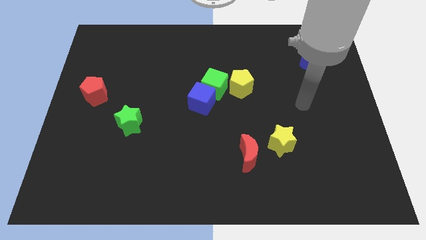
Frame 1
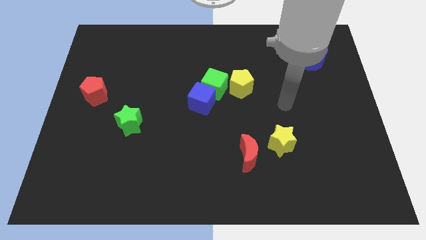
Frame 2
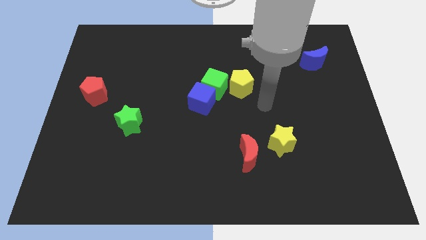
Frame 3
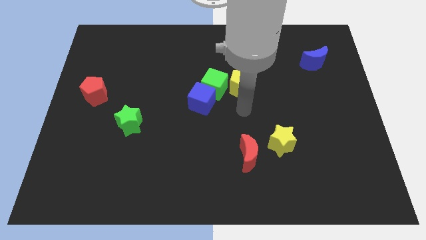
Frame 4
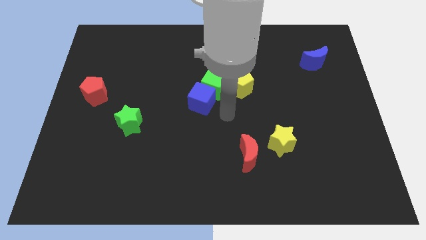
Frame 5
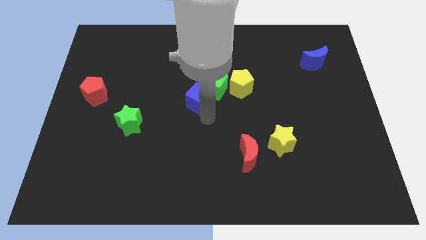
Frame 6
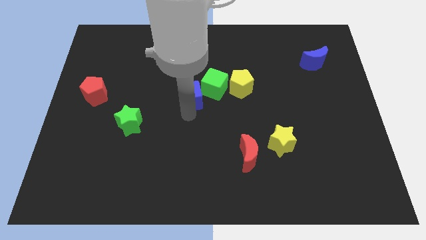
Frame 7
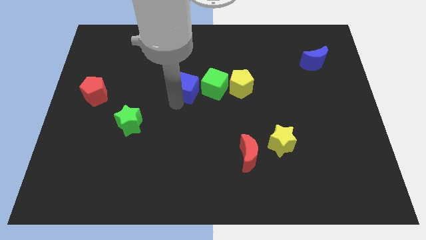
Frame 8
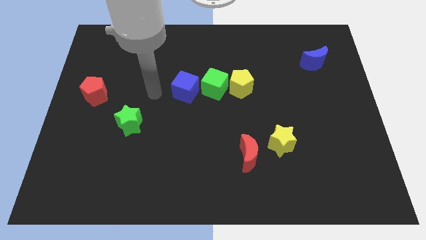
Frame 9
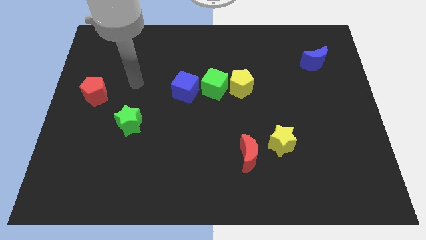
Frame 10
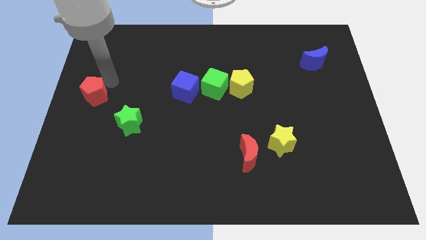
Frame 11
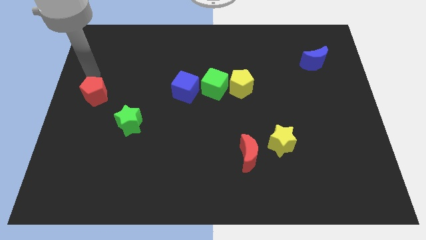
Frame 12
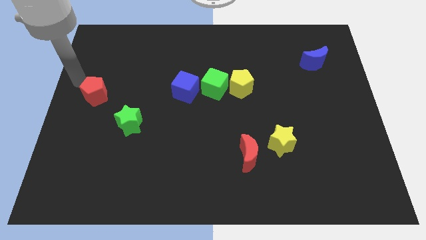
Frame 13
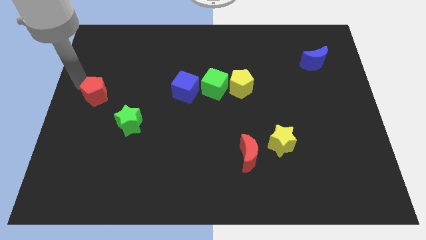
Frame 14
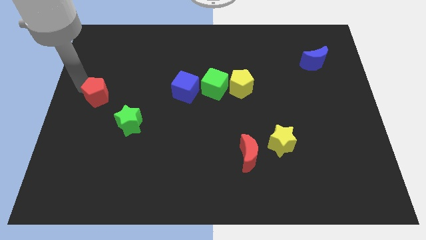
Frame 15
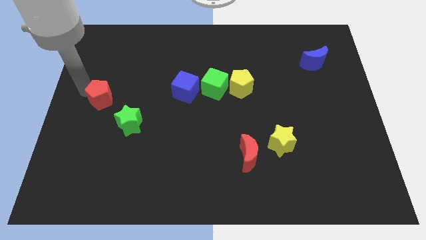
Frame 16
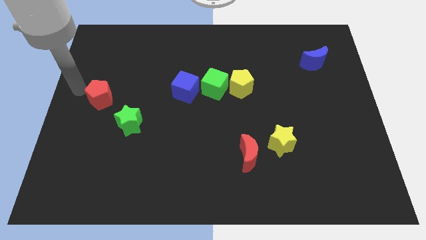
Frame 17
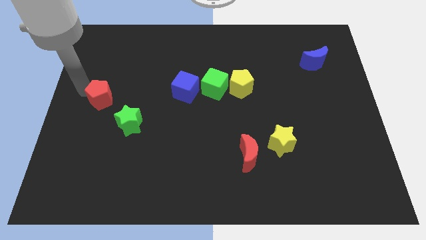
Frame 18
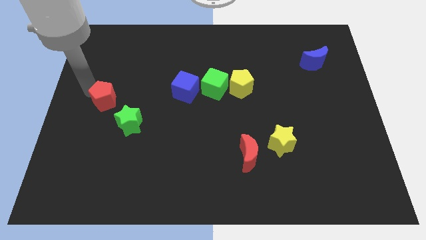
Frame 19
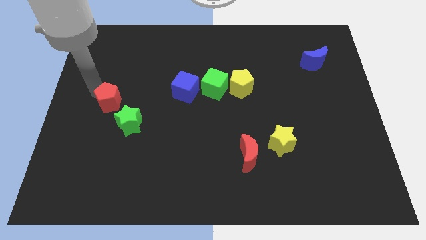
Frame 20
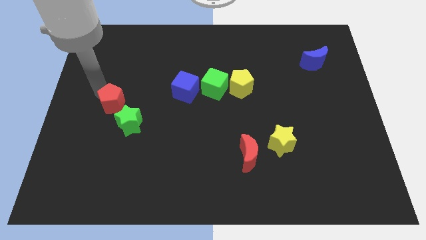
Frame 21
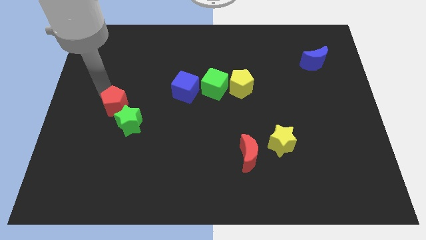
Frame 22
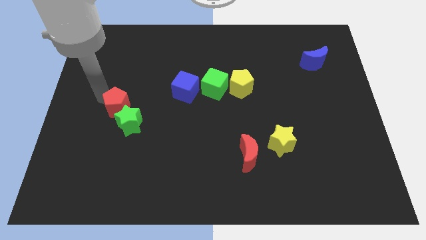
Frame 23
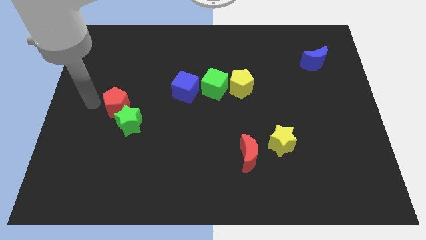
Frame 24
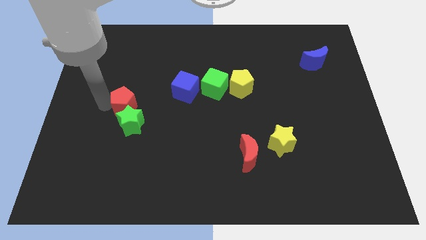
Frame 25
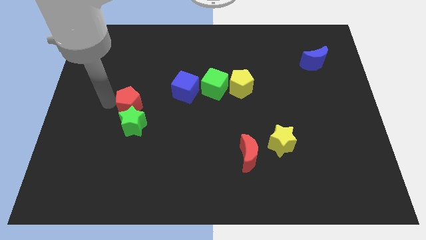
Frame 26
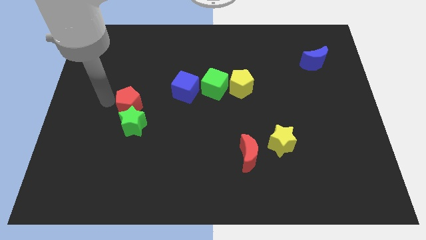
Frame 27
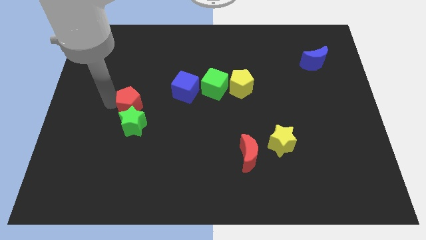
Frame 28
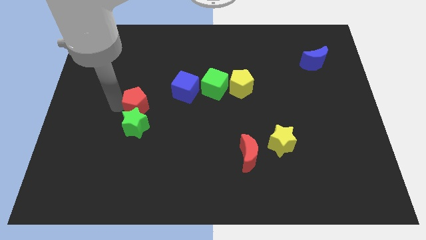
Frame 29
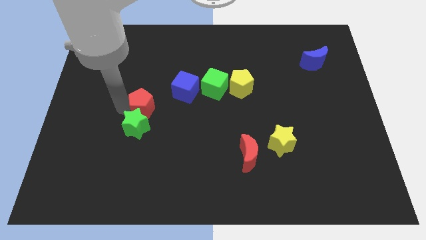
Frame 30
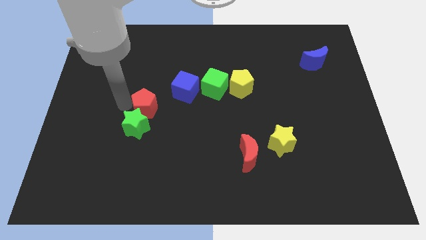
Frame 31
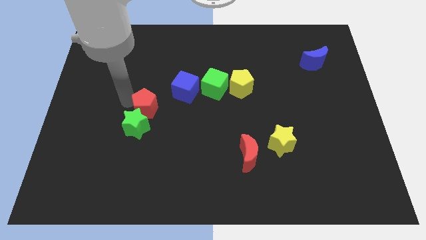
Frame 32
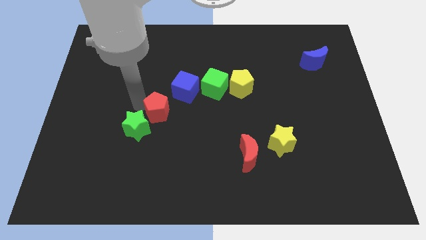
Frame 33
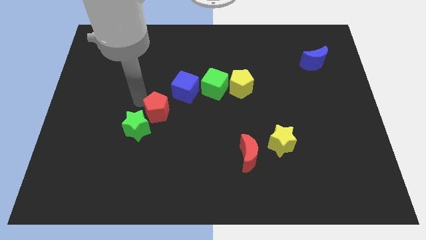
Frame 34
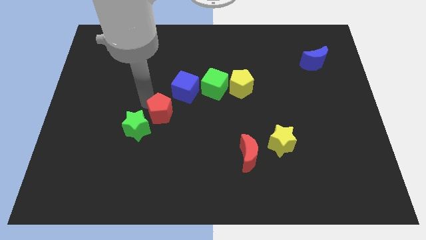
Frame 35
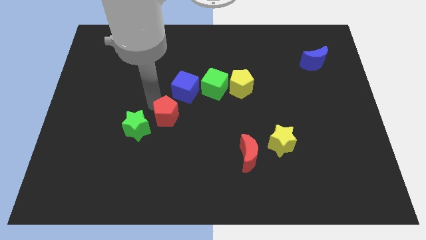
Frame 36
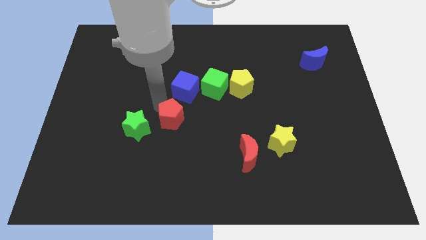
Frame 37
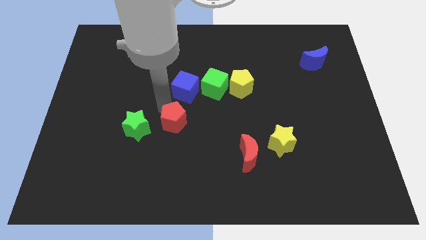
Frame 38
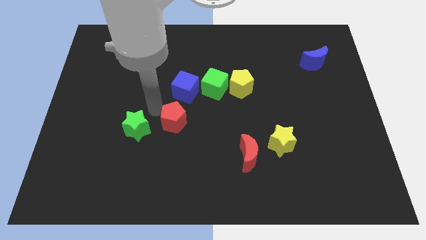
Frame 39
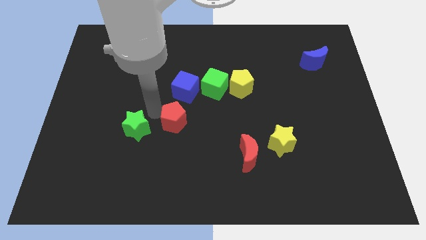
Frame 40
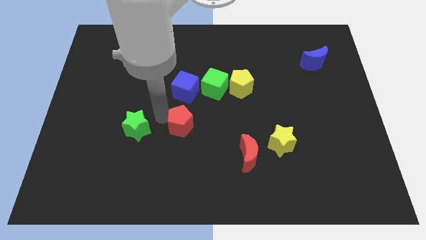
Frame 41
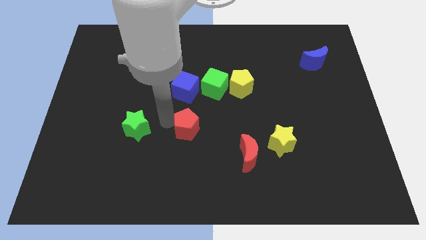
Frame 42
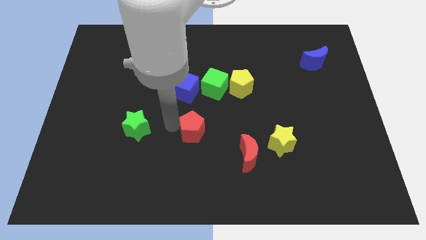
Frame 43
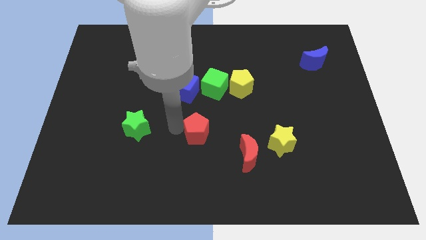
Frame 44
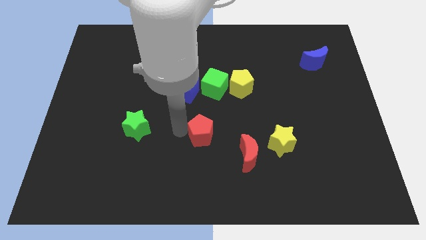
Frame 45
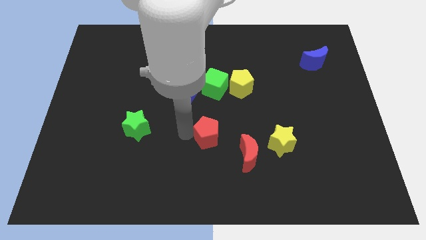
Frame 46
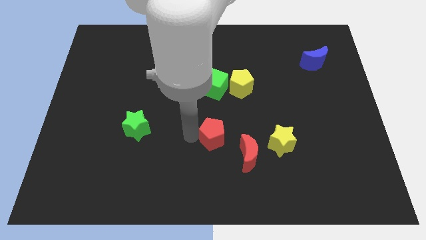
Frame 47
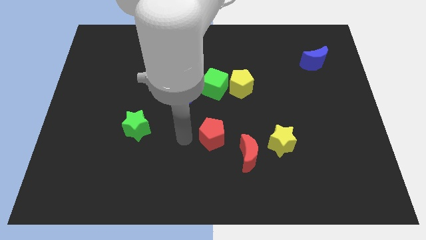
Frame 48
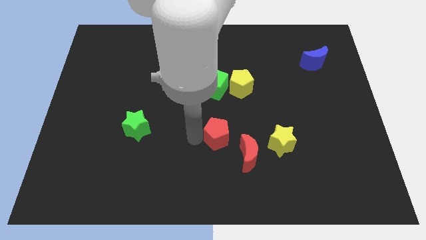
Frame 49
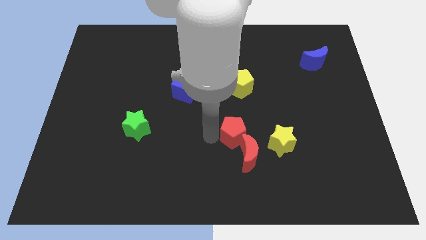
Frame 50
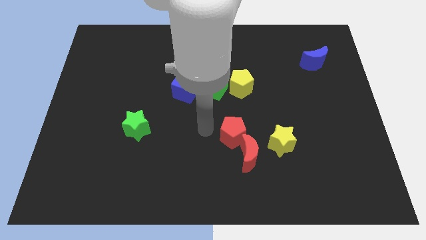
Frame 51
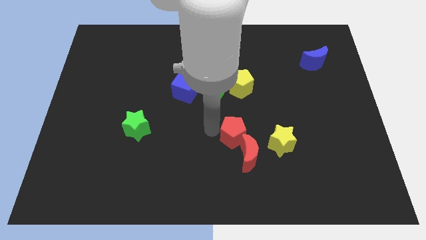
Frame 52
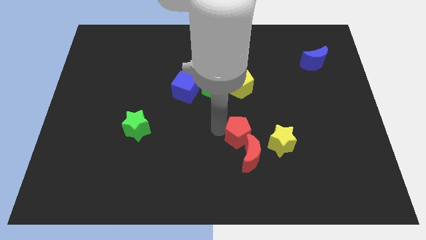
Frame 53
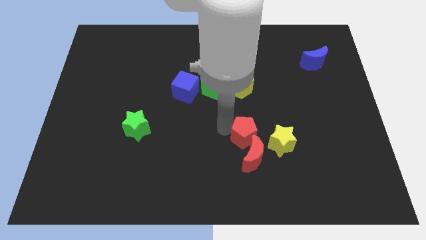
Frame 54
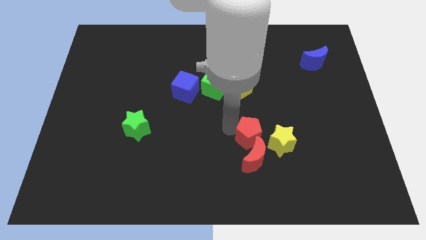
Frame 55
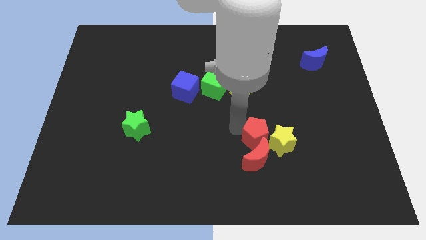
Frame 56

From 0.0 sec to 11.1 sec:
slide the red pentagon next to the yellow star

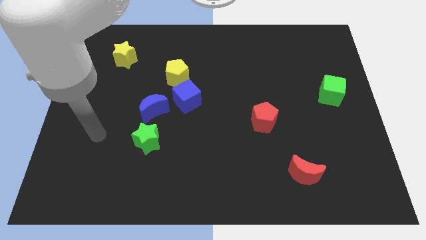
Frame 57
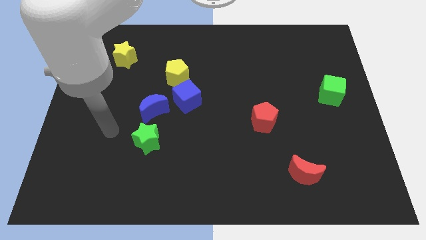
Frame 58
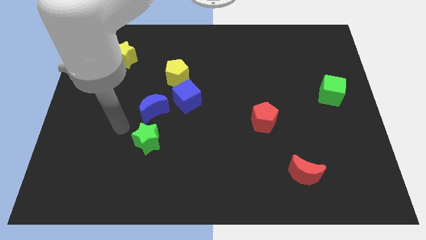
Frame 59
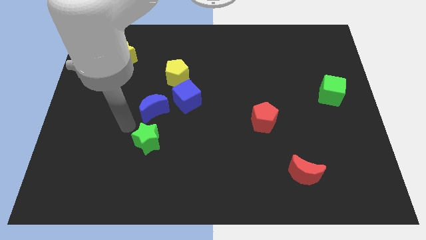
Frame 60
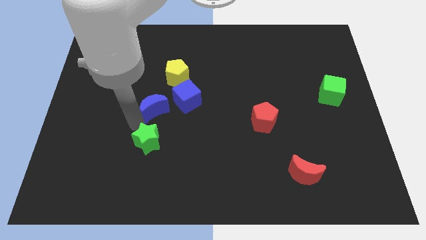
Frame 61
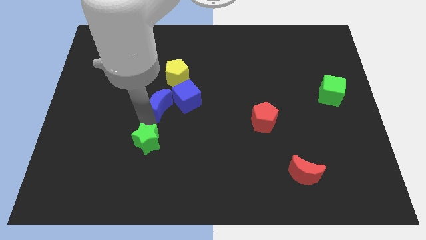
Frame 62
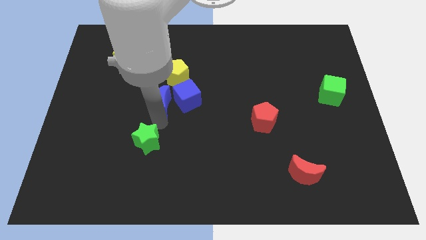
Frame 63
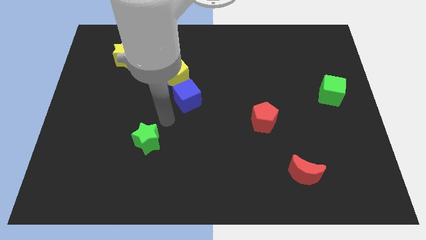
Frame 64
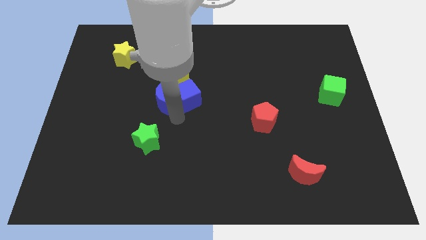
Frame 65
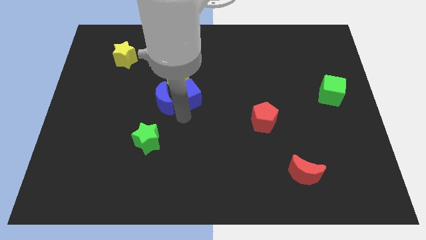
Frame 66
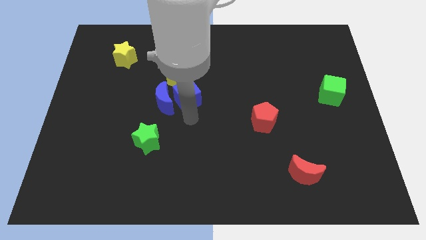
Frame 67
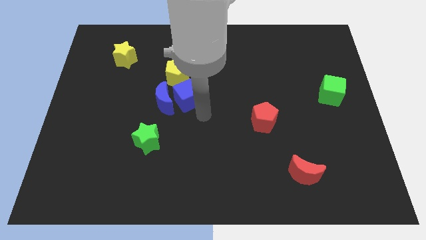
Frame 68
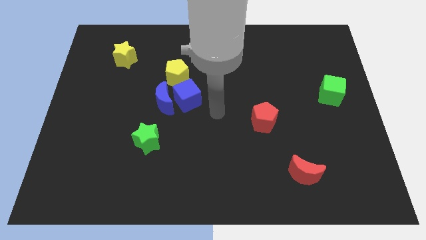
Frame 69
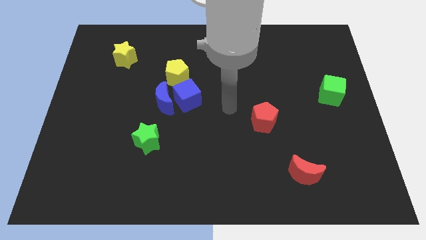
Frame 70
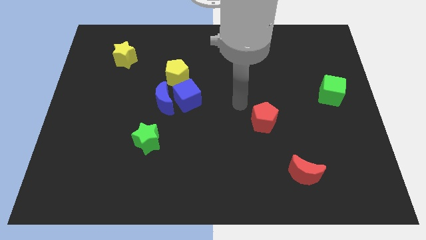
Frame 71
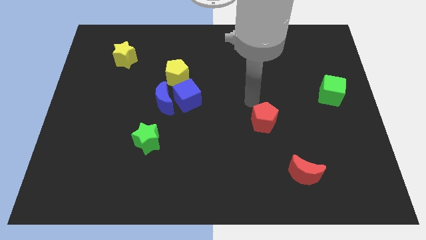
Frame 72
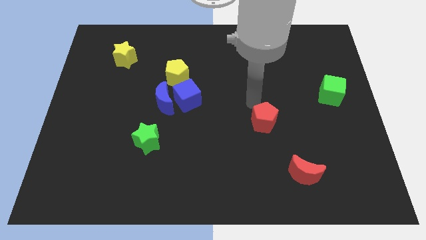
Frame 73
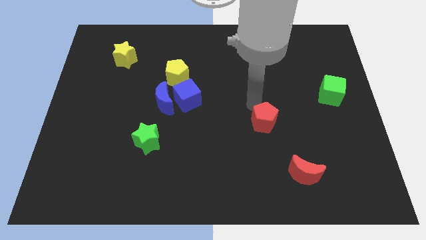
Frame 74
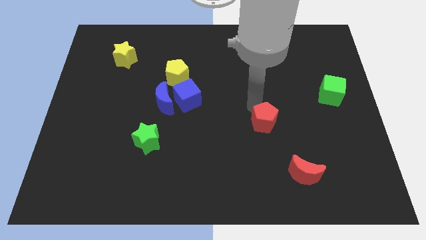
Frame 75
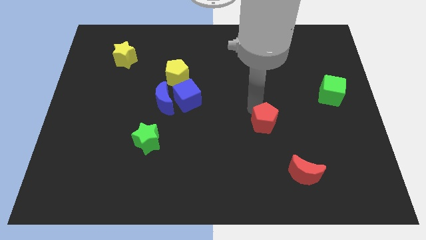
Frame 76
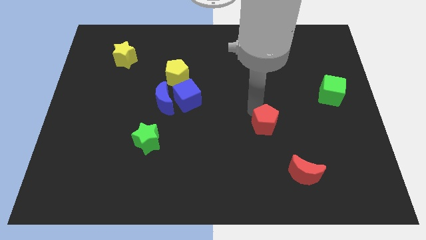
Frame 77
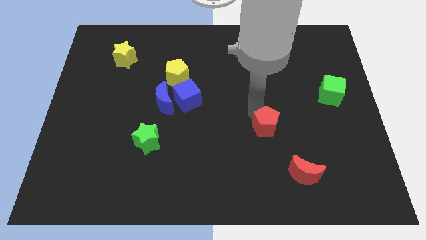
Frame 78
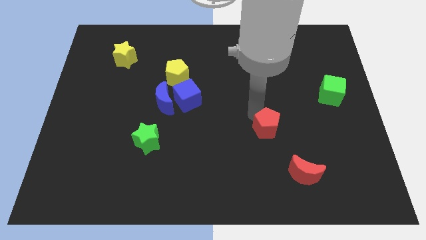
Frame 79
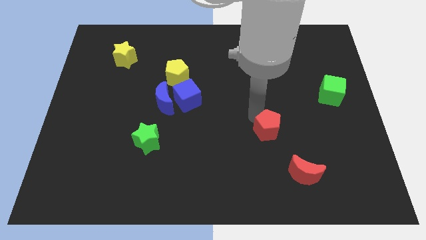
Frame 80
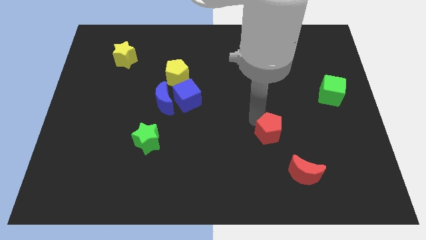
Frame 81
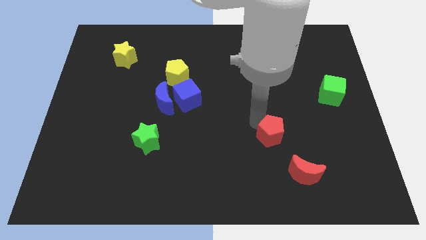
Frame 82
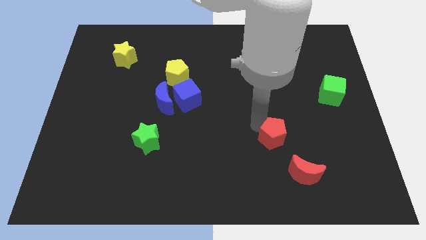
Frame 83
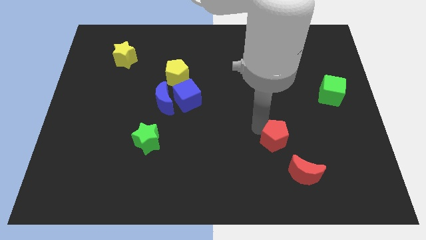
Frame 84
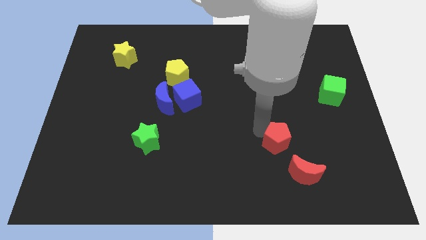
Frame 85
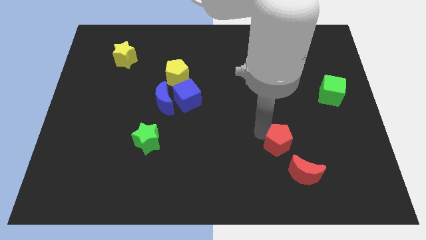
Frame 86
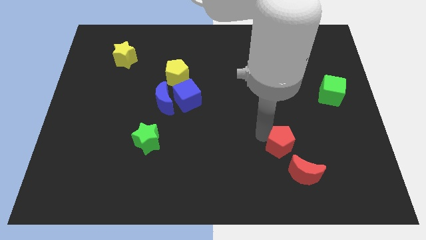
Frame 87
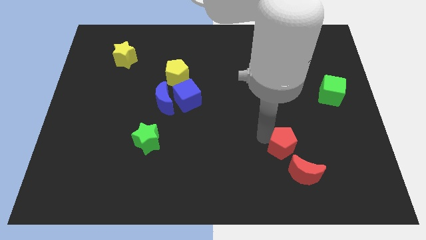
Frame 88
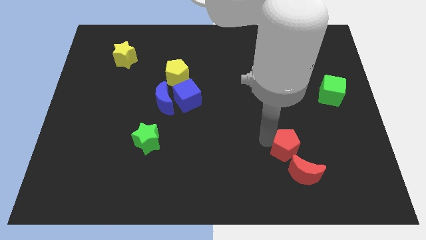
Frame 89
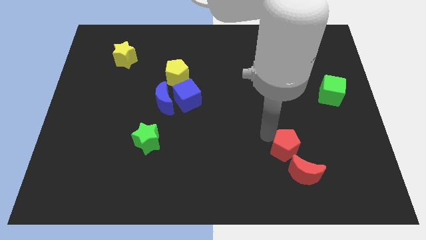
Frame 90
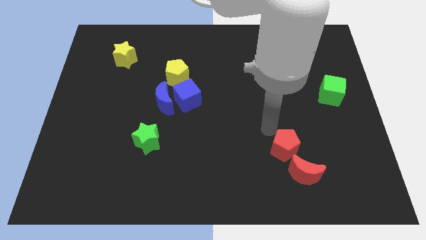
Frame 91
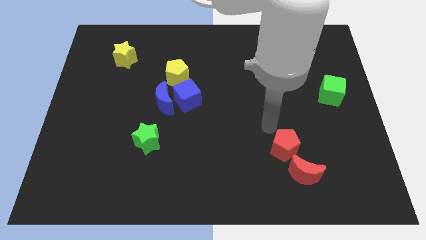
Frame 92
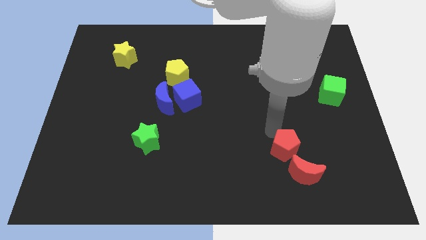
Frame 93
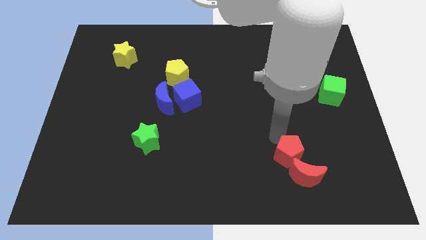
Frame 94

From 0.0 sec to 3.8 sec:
move the red pentagon close to the red moon
